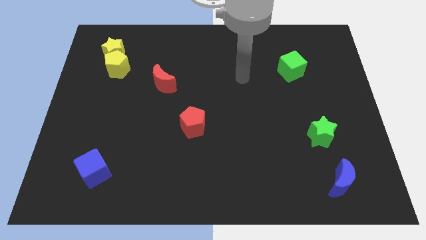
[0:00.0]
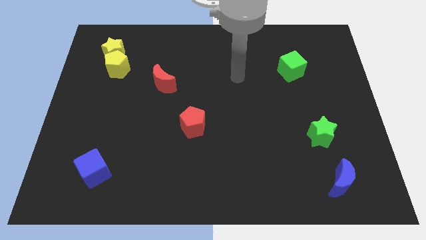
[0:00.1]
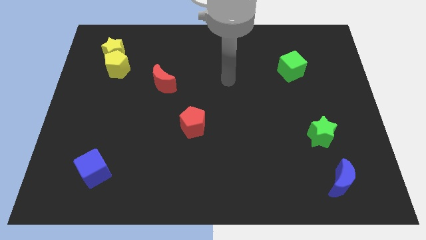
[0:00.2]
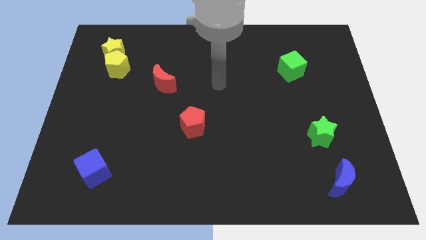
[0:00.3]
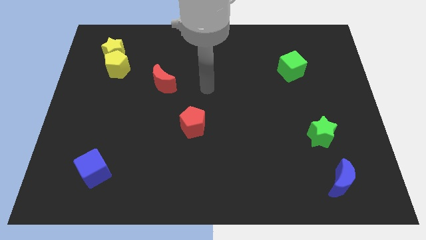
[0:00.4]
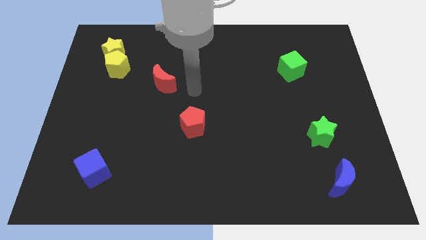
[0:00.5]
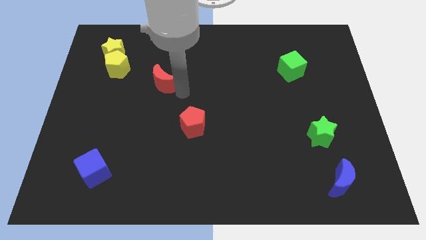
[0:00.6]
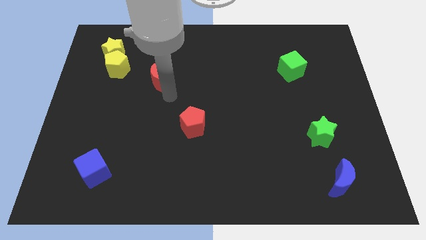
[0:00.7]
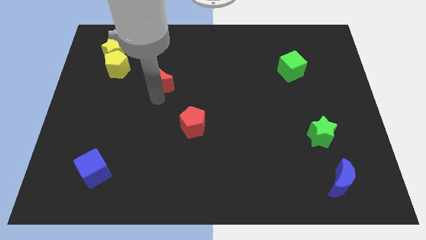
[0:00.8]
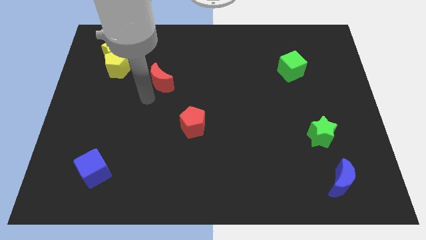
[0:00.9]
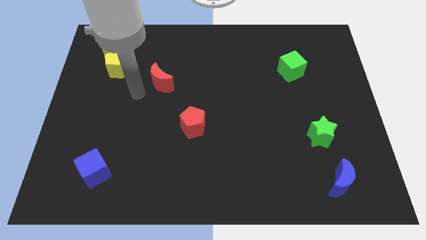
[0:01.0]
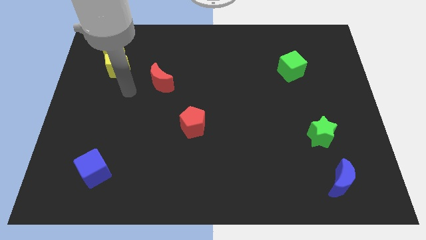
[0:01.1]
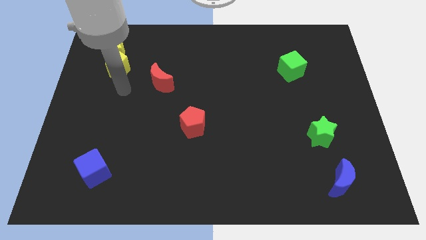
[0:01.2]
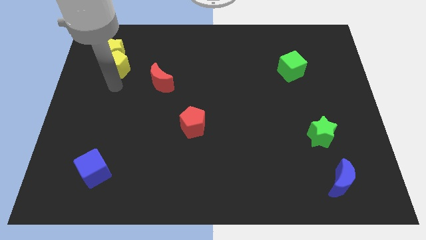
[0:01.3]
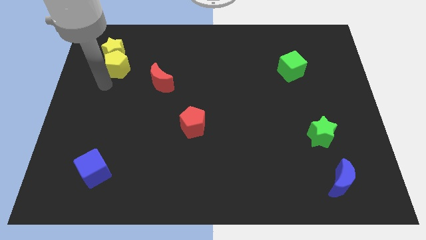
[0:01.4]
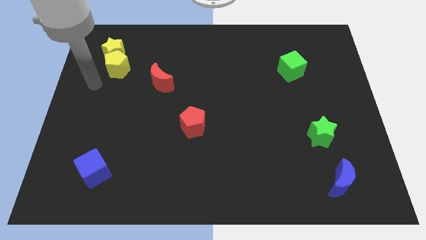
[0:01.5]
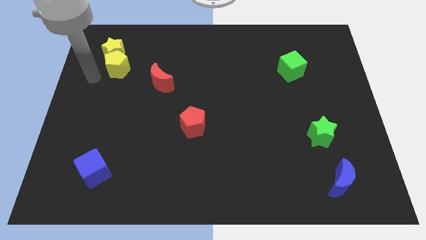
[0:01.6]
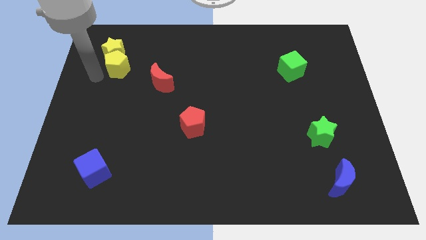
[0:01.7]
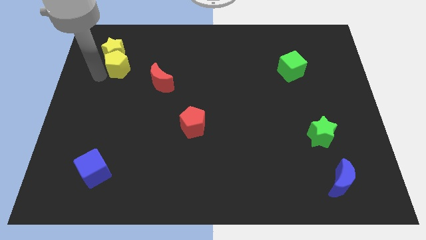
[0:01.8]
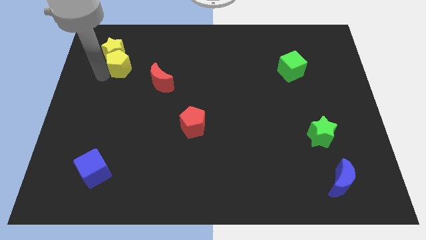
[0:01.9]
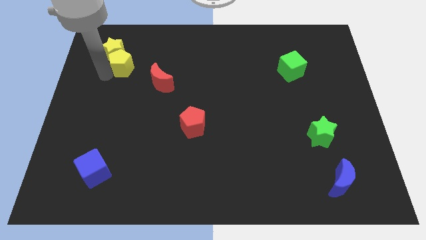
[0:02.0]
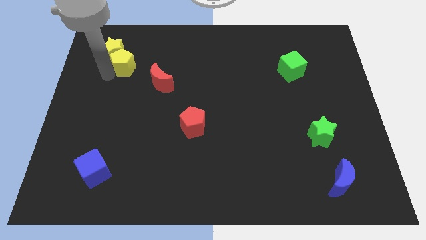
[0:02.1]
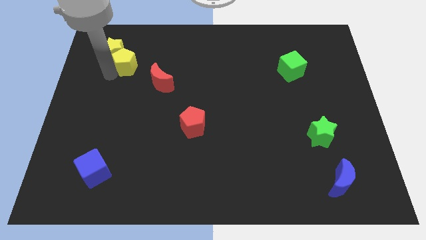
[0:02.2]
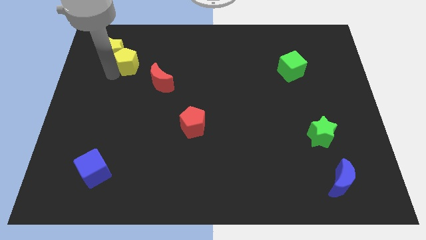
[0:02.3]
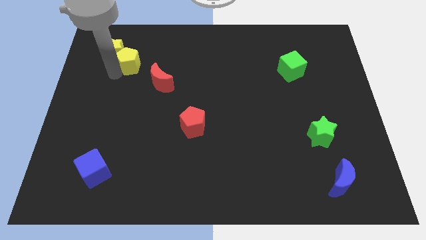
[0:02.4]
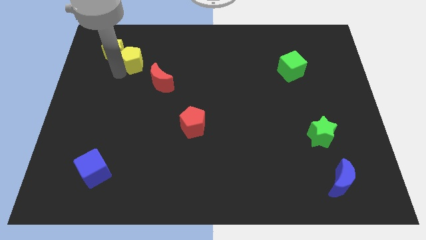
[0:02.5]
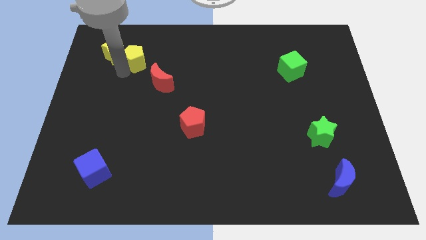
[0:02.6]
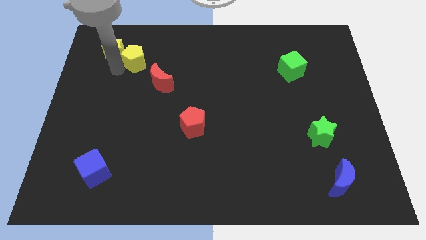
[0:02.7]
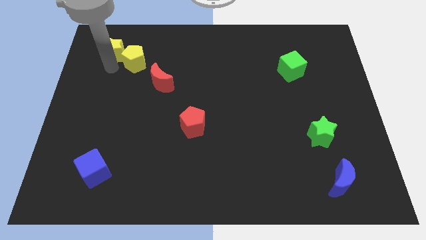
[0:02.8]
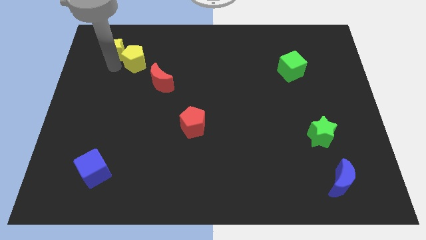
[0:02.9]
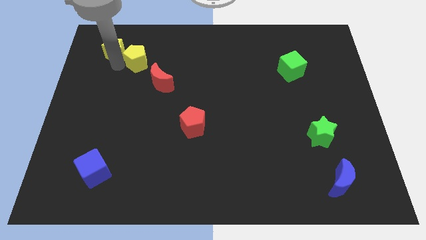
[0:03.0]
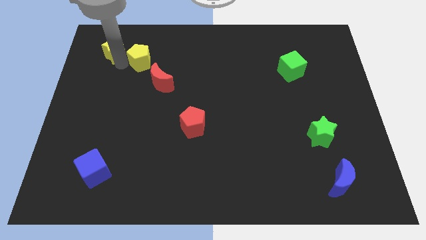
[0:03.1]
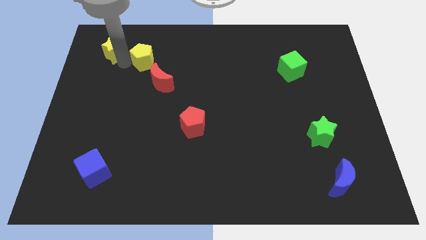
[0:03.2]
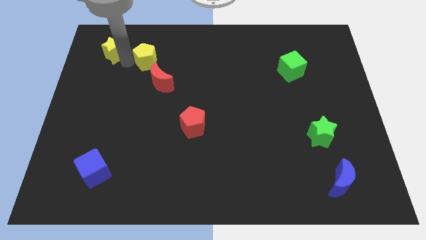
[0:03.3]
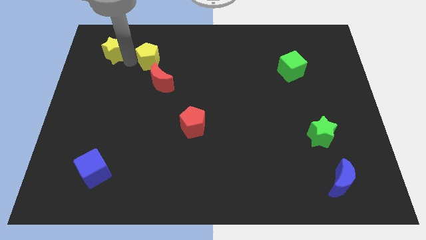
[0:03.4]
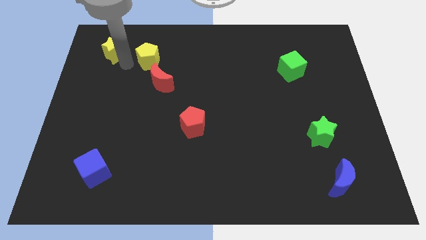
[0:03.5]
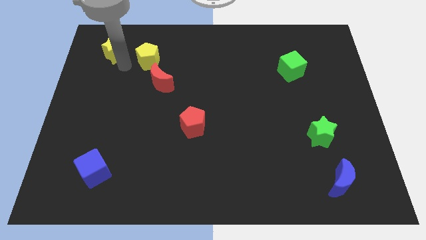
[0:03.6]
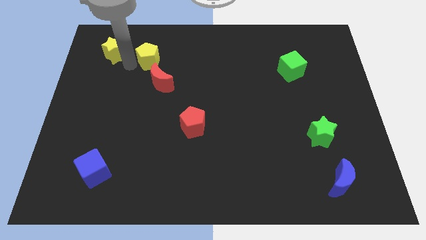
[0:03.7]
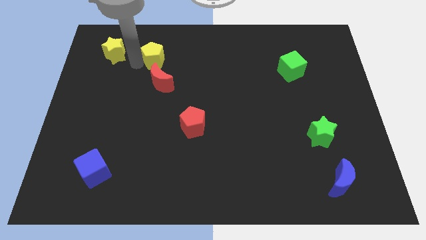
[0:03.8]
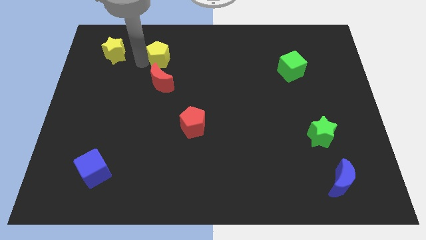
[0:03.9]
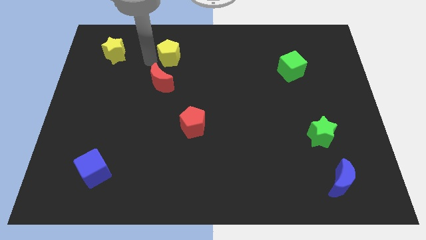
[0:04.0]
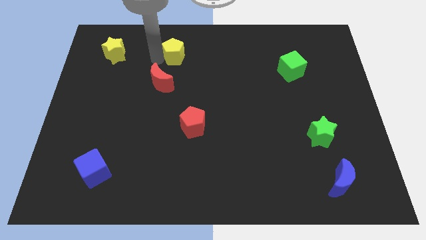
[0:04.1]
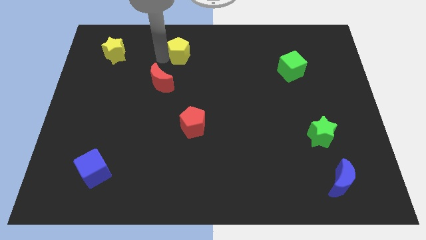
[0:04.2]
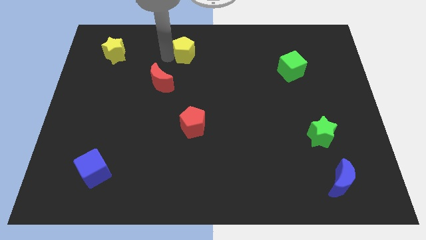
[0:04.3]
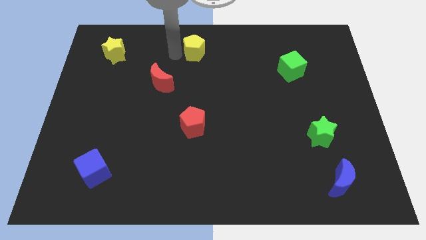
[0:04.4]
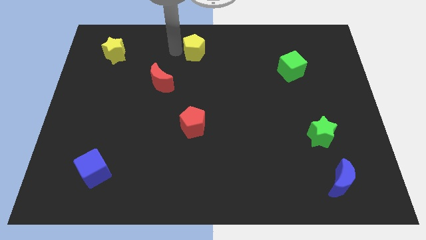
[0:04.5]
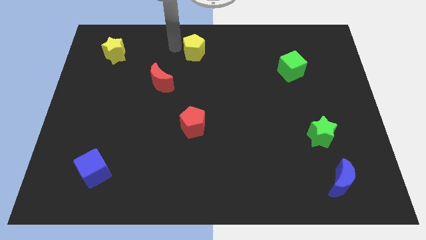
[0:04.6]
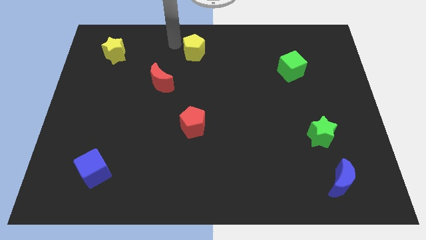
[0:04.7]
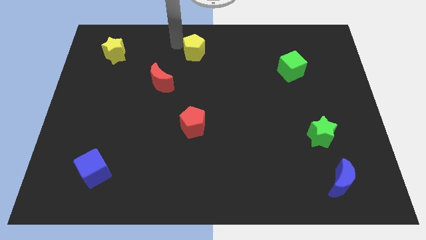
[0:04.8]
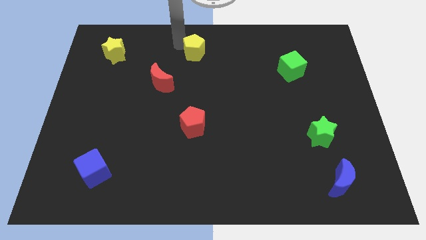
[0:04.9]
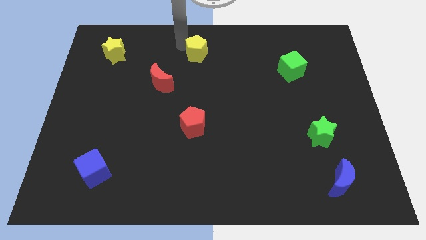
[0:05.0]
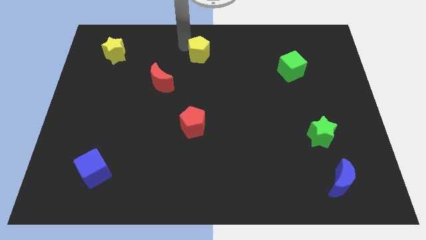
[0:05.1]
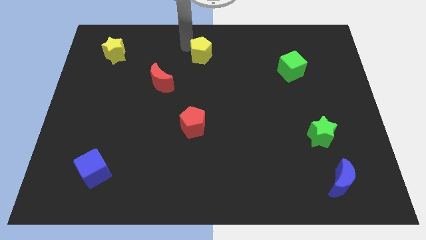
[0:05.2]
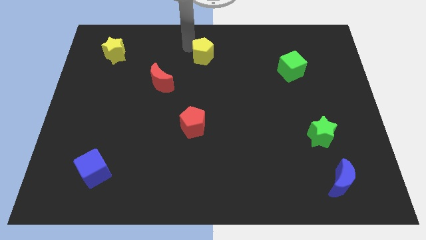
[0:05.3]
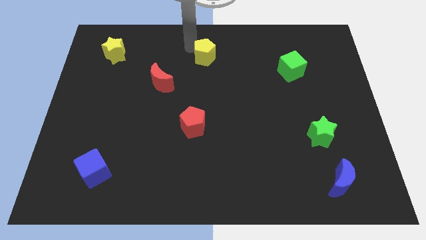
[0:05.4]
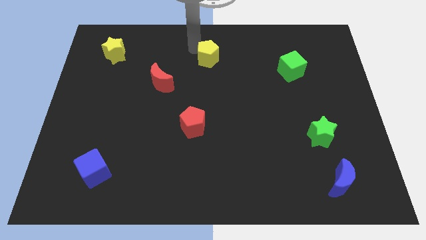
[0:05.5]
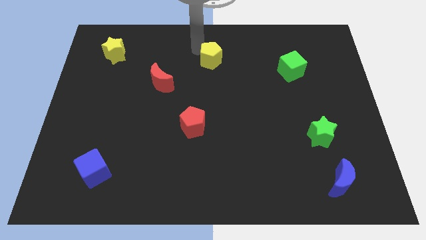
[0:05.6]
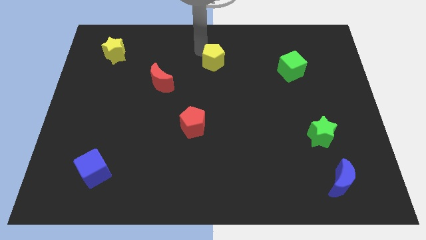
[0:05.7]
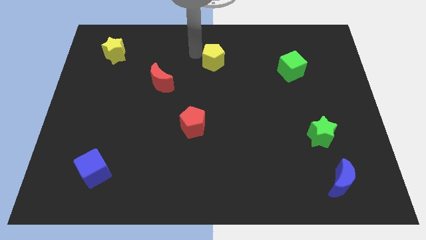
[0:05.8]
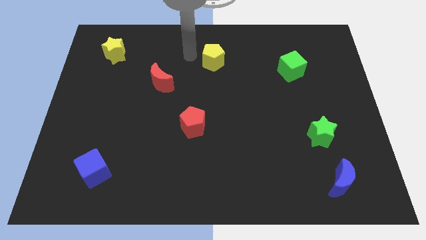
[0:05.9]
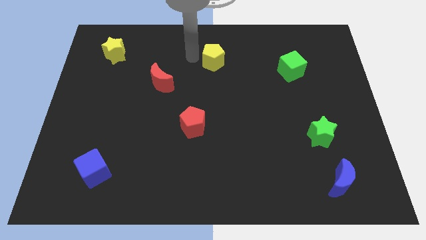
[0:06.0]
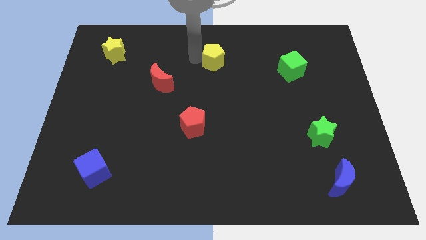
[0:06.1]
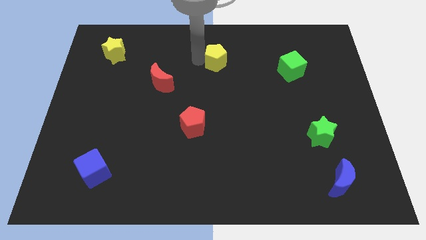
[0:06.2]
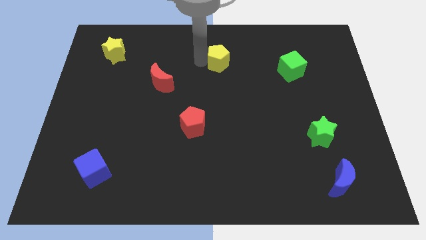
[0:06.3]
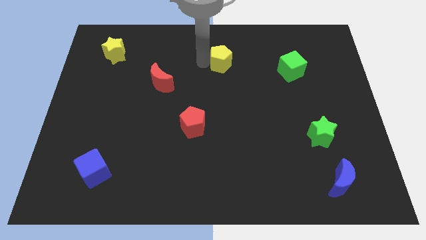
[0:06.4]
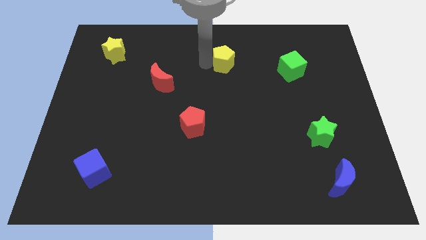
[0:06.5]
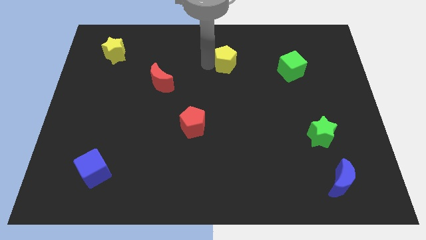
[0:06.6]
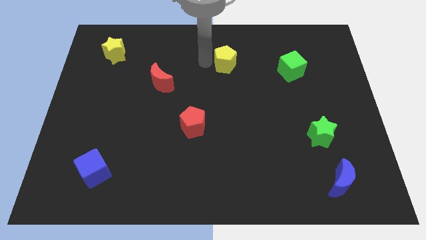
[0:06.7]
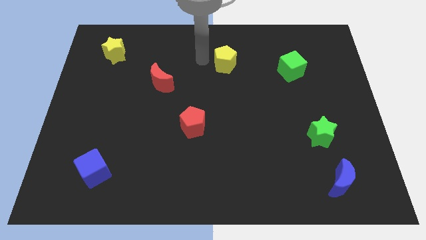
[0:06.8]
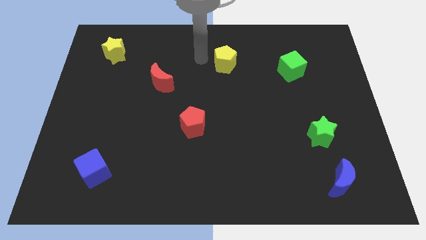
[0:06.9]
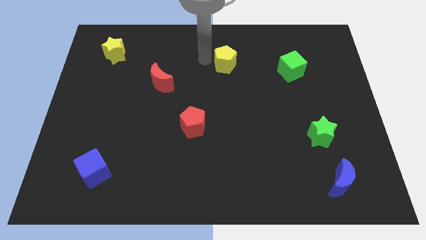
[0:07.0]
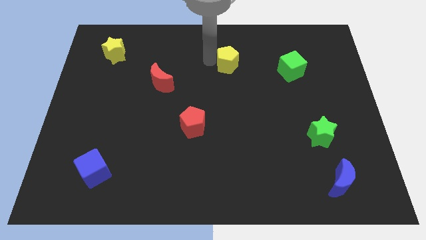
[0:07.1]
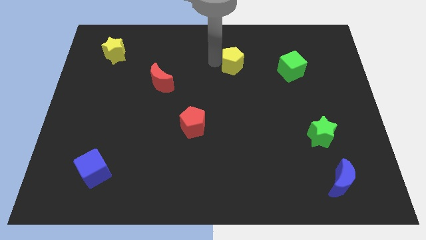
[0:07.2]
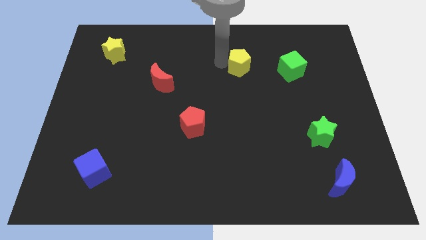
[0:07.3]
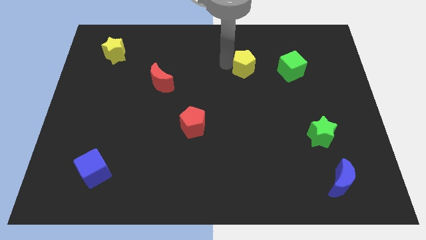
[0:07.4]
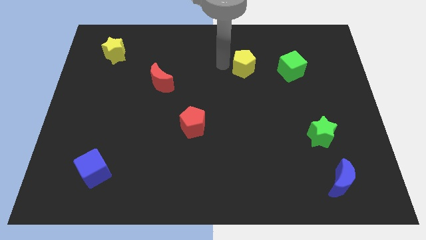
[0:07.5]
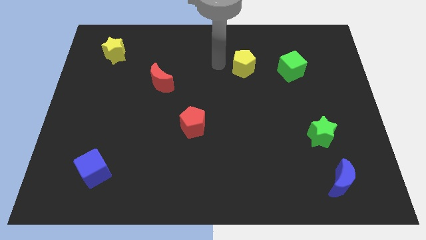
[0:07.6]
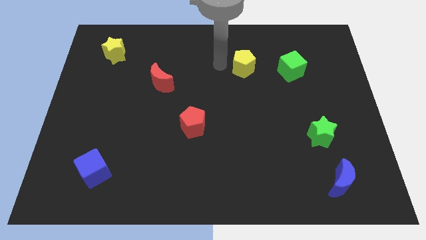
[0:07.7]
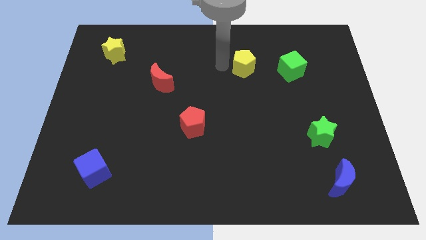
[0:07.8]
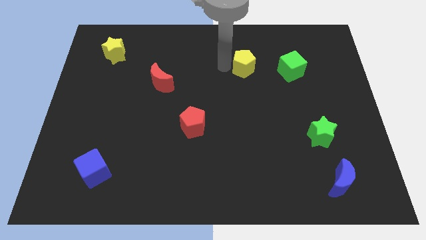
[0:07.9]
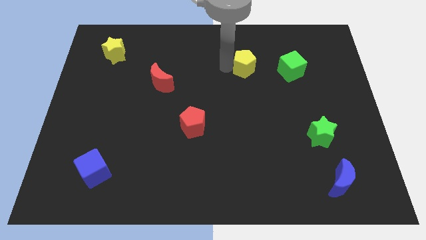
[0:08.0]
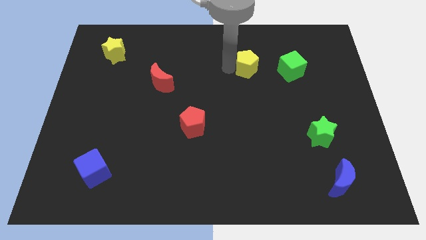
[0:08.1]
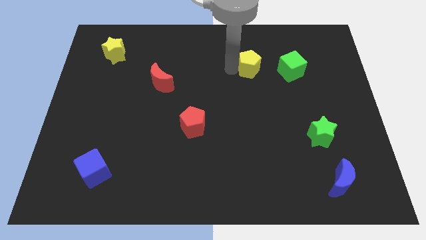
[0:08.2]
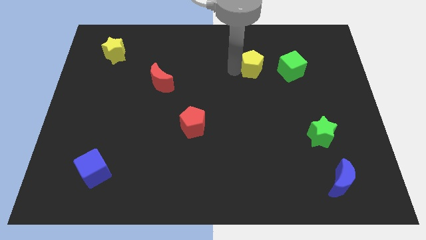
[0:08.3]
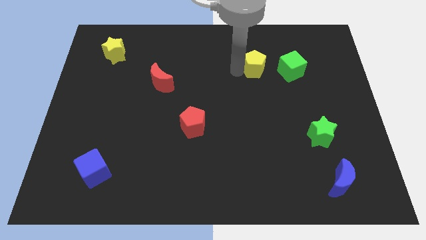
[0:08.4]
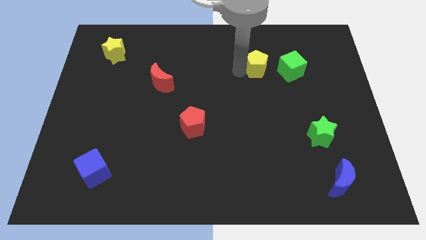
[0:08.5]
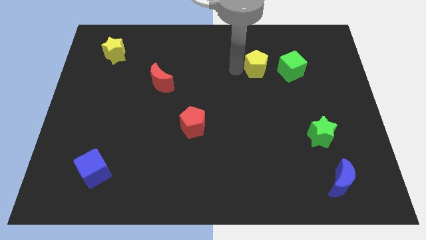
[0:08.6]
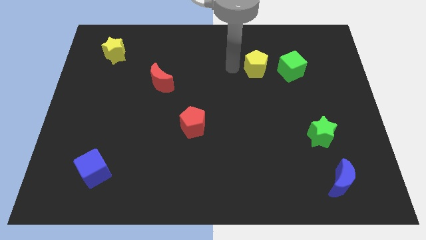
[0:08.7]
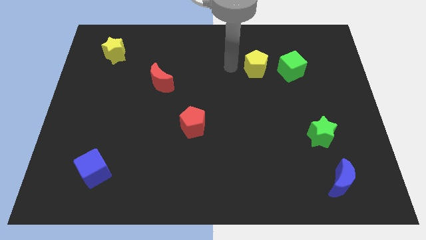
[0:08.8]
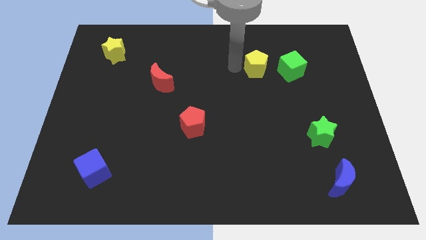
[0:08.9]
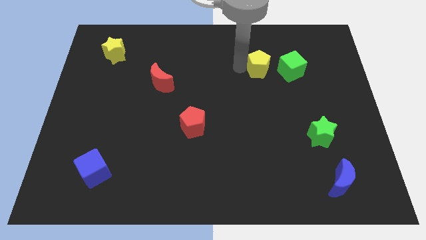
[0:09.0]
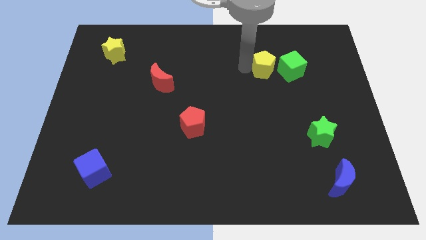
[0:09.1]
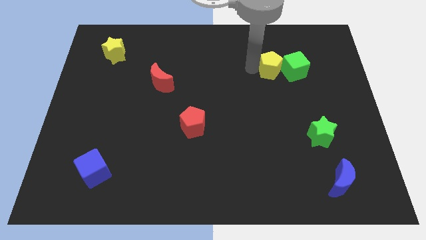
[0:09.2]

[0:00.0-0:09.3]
push the yellow pentagon to the green cube
